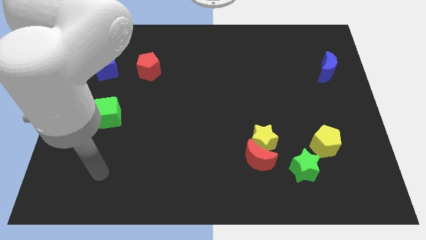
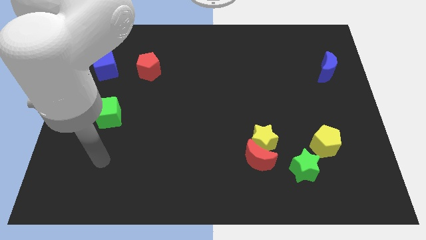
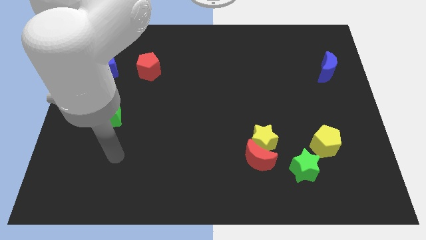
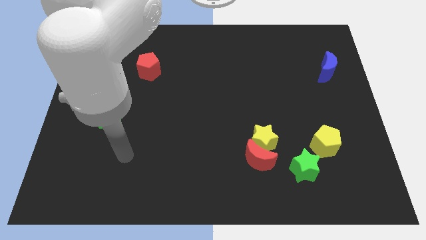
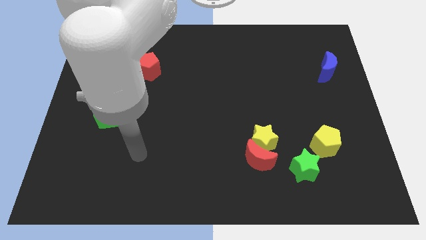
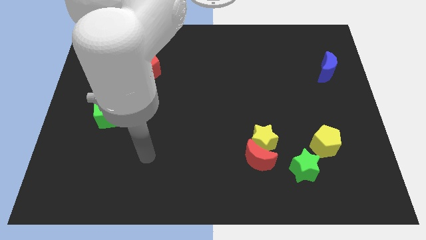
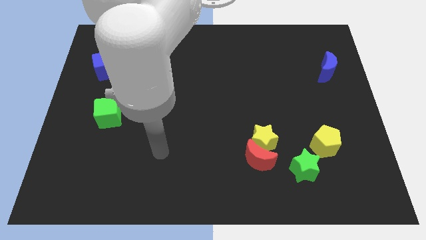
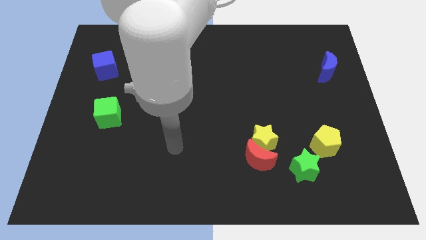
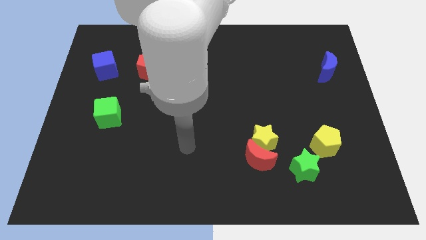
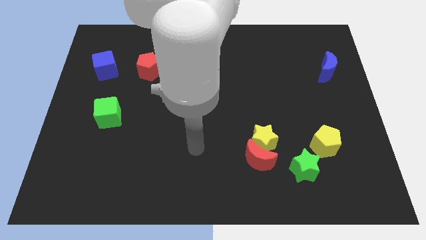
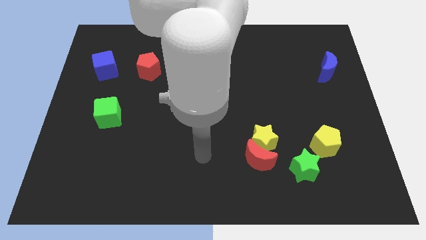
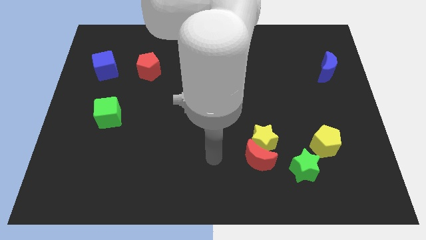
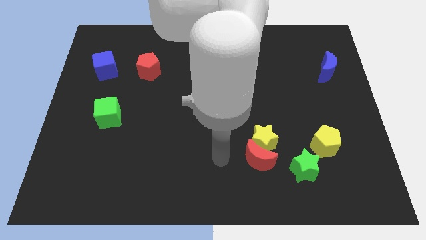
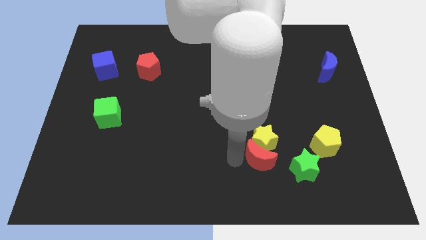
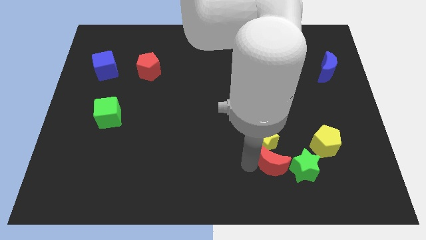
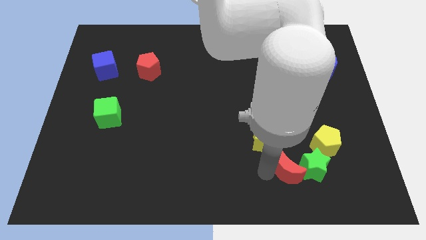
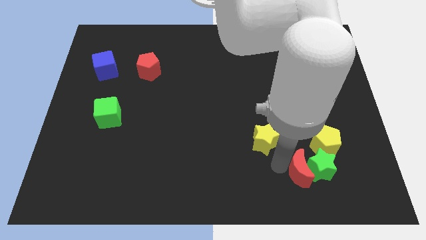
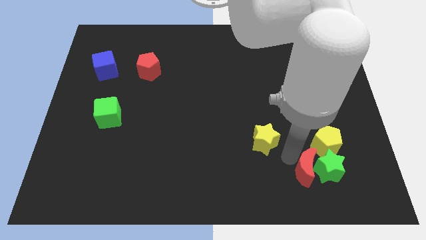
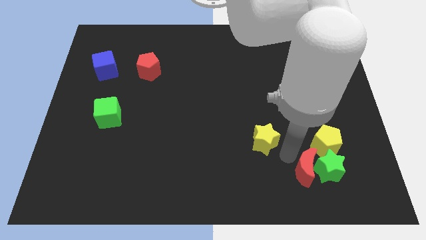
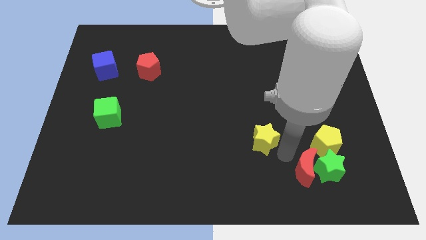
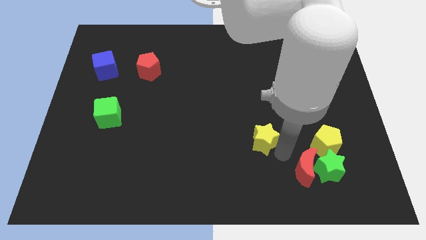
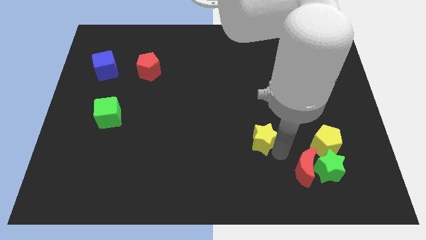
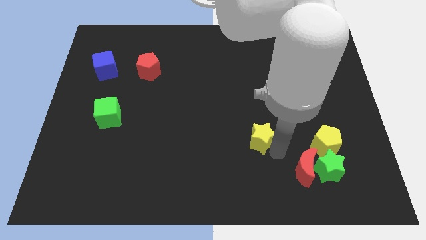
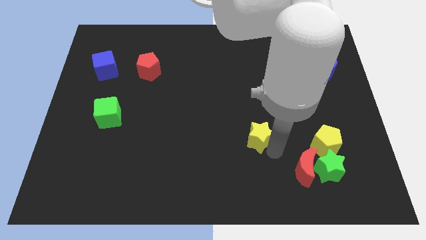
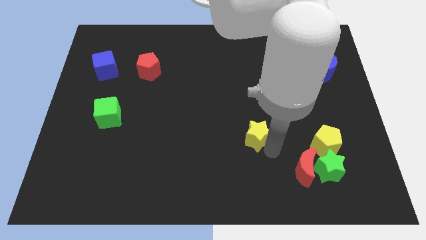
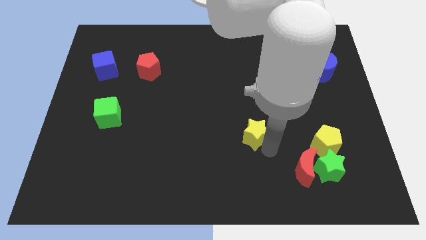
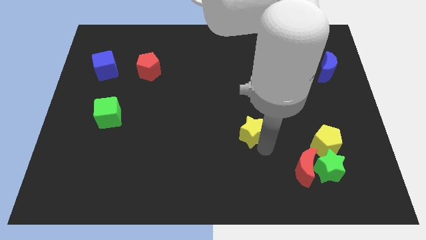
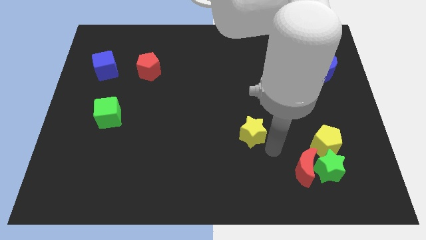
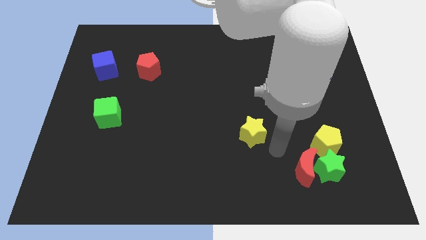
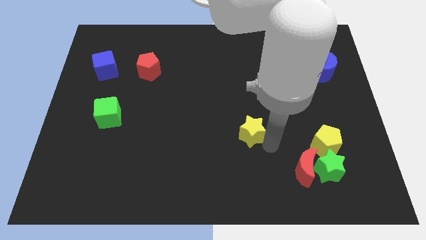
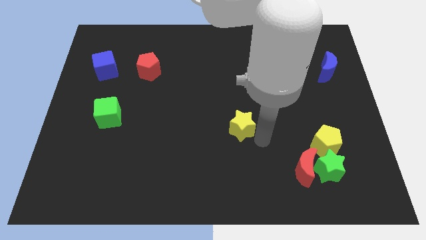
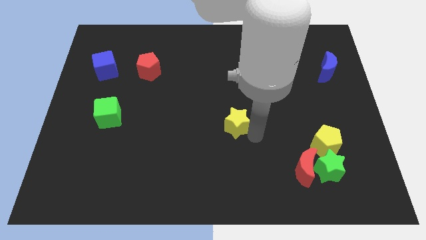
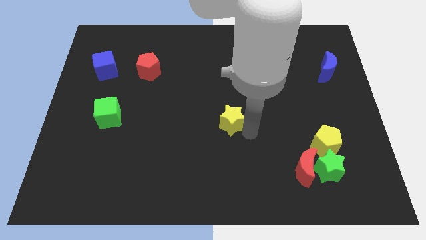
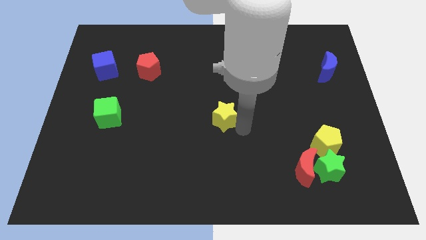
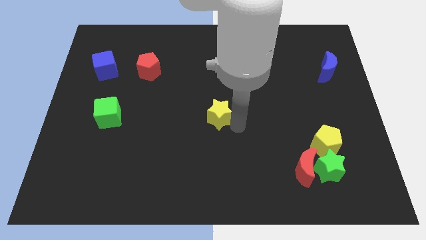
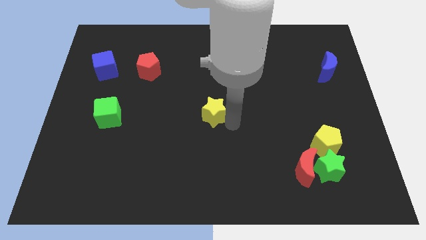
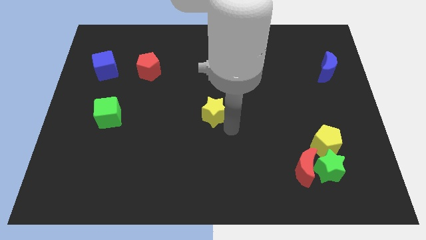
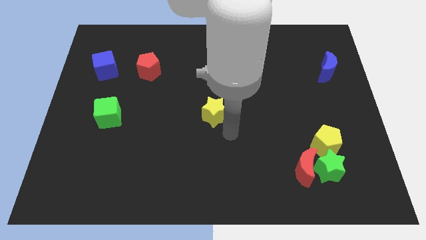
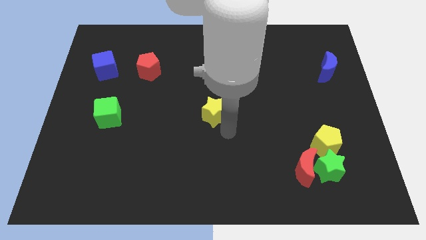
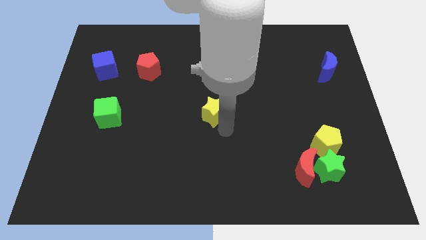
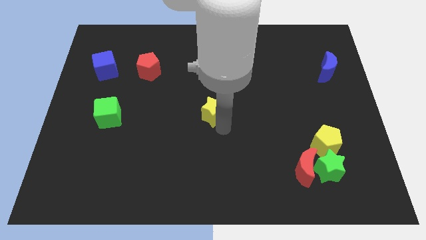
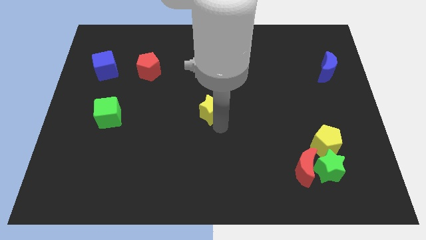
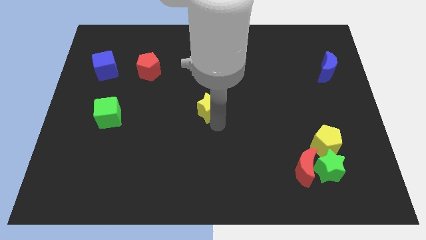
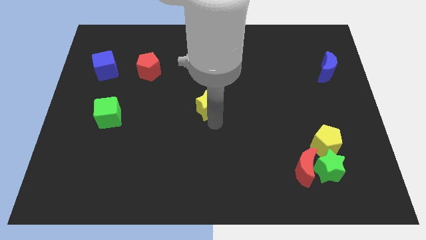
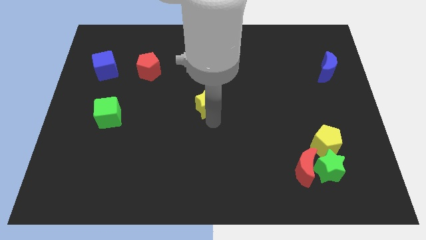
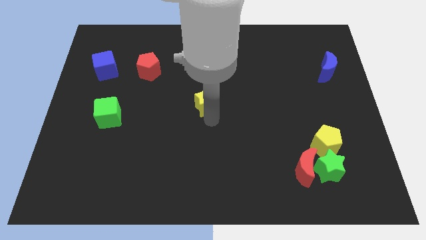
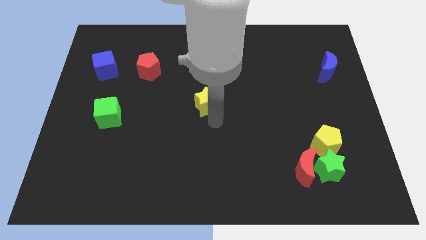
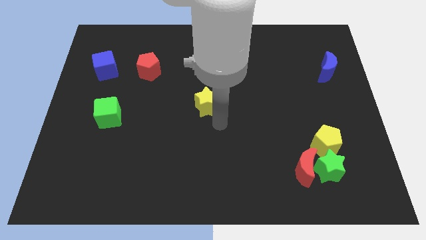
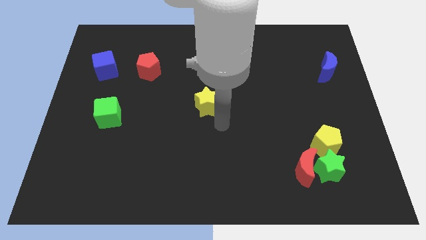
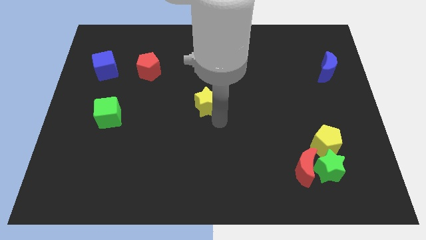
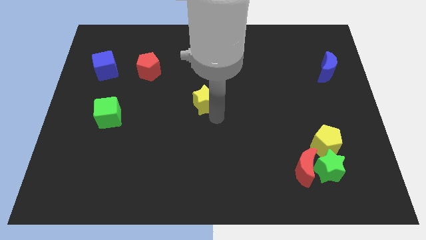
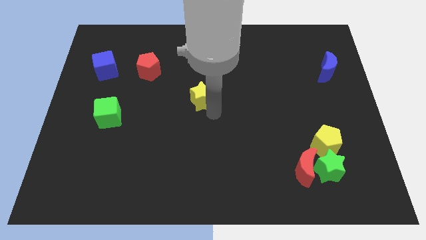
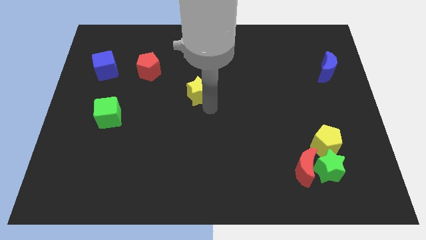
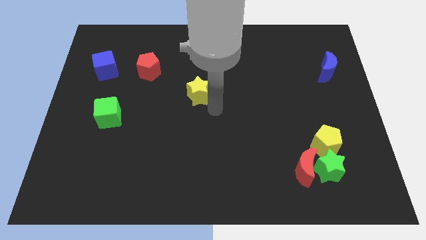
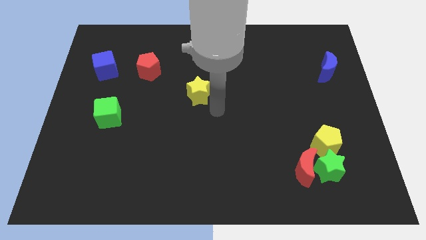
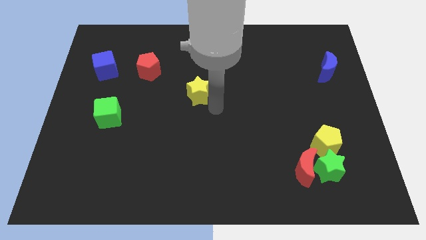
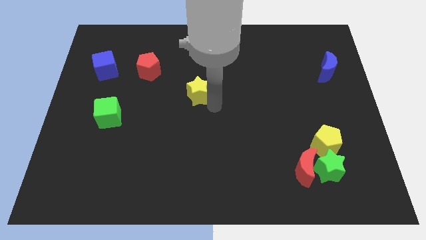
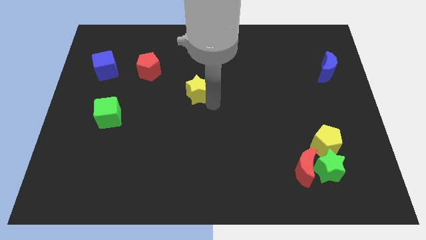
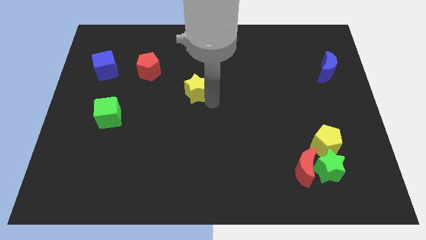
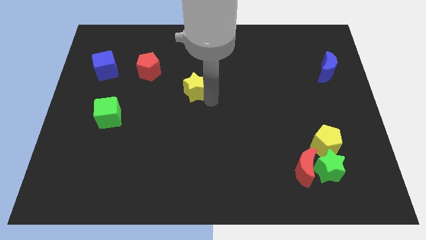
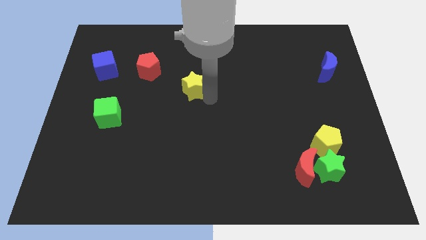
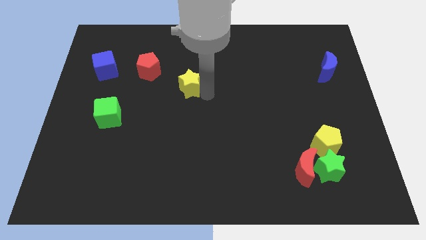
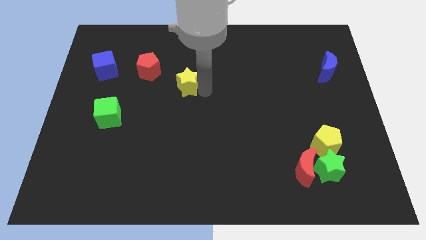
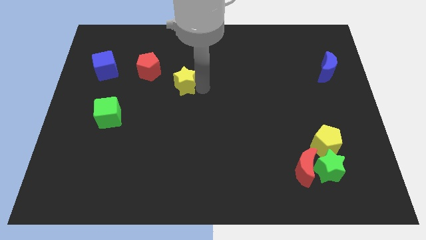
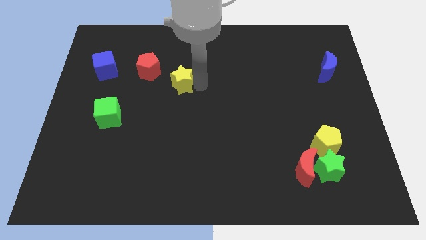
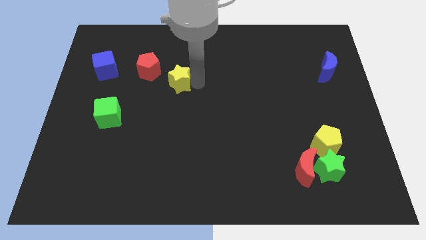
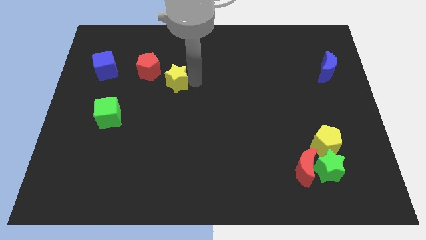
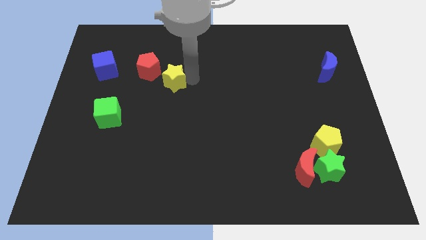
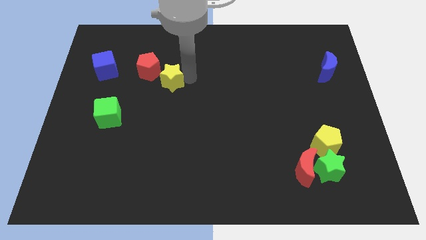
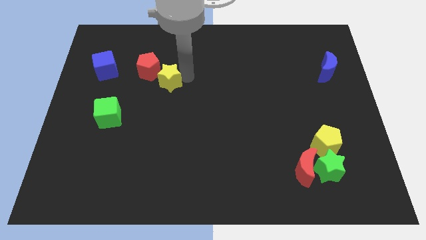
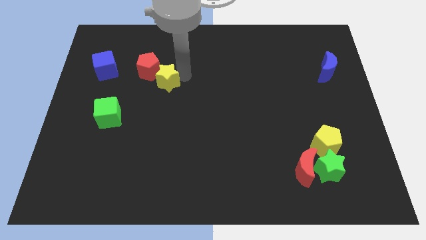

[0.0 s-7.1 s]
push the yellow star to the red pentagon

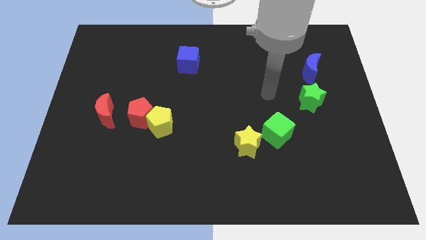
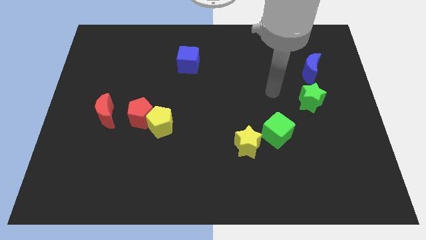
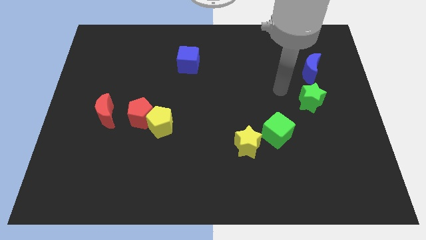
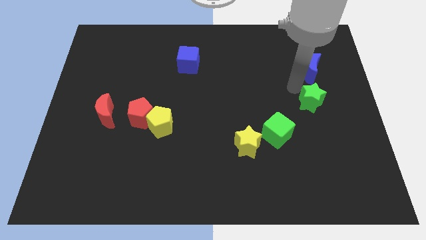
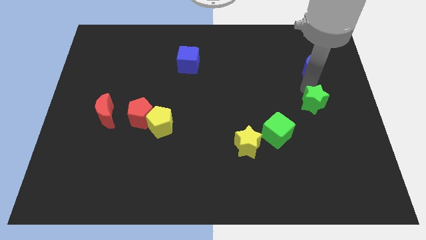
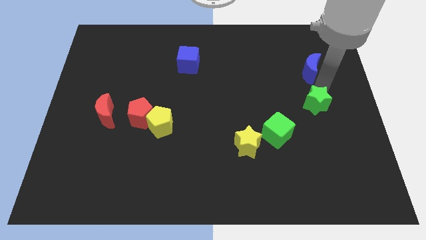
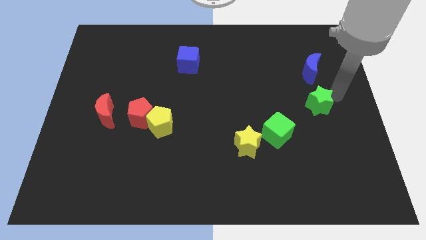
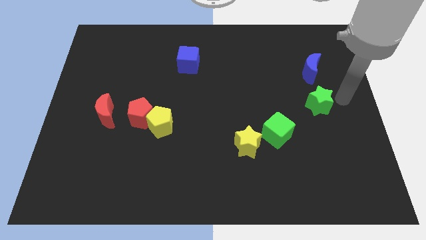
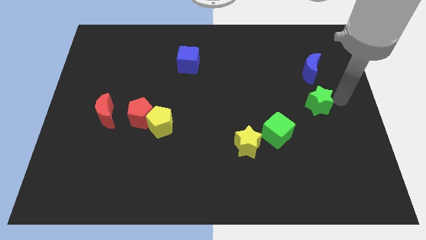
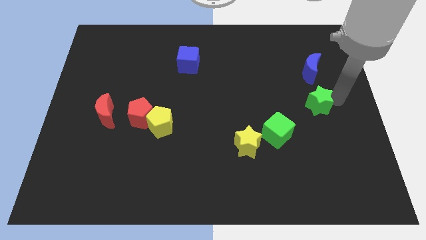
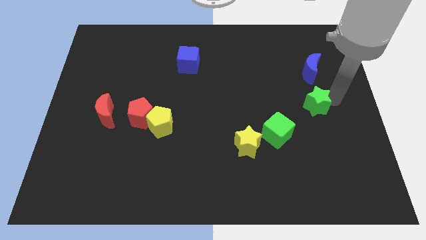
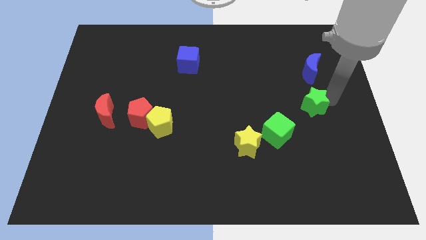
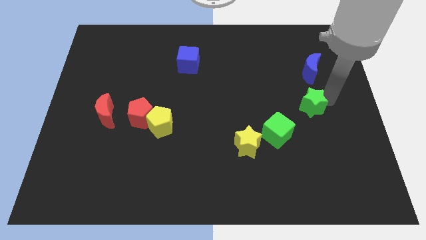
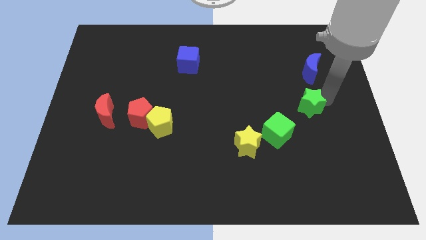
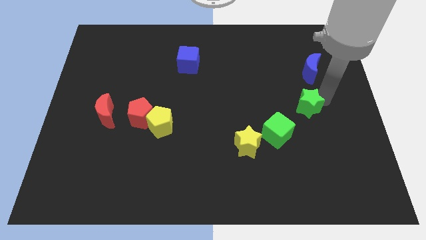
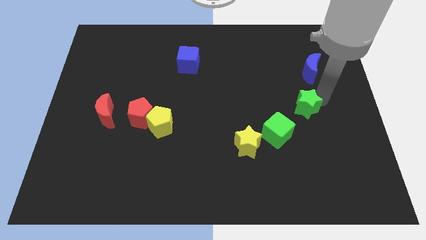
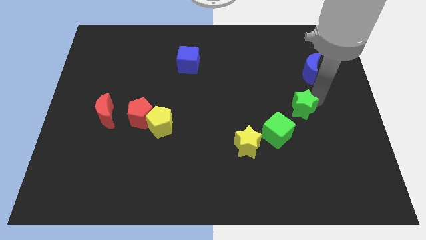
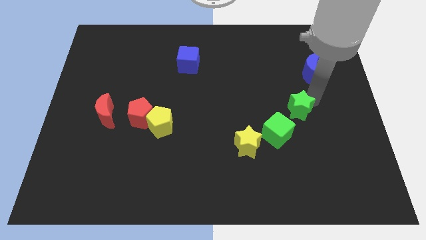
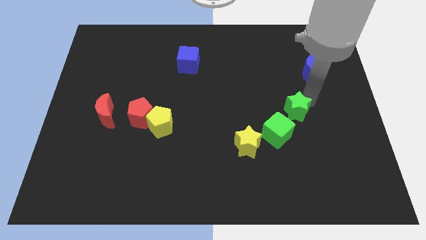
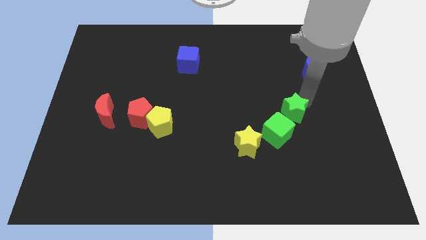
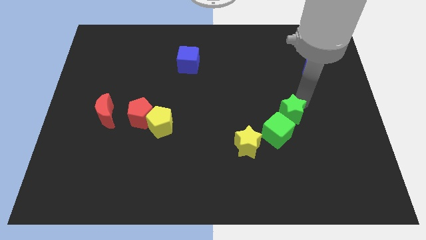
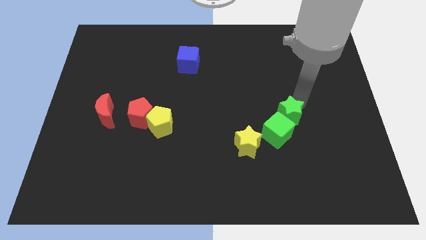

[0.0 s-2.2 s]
slide the green star next to the green cube
